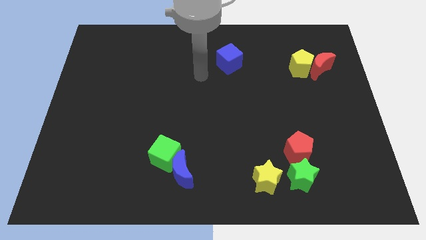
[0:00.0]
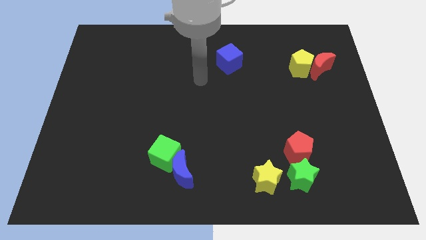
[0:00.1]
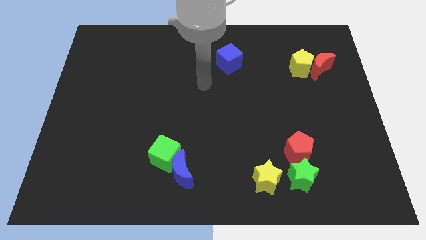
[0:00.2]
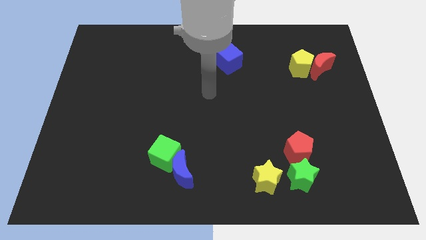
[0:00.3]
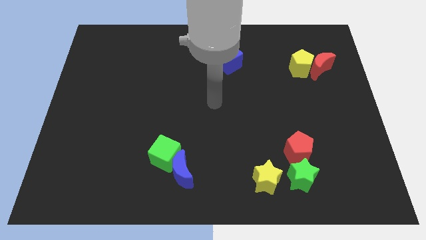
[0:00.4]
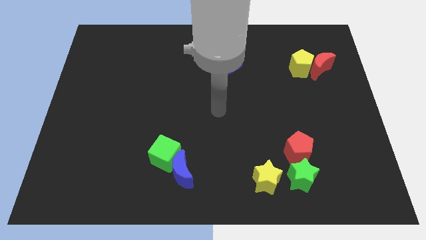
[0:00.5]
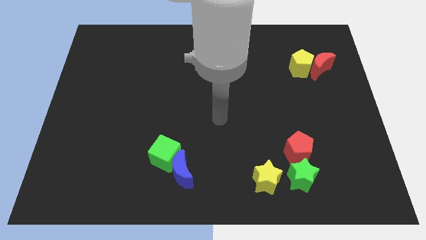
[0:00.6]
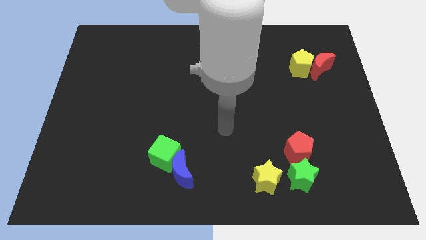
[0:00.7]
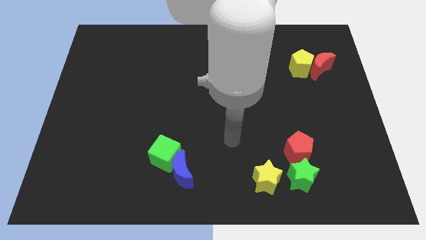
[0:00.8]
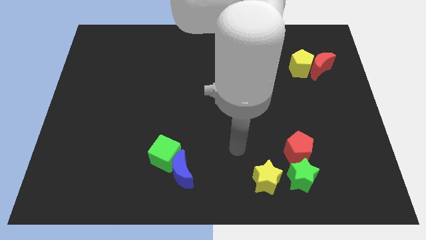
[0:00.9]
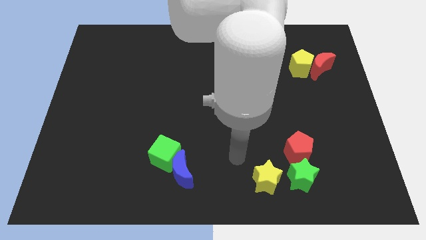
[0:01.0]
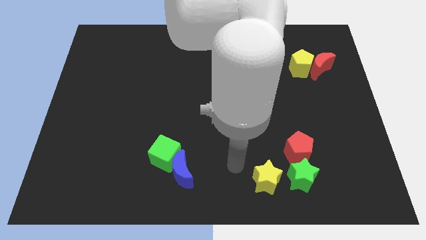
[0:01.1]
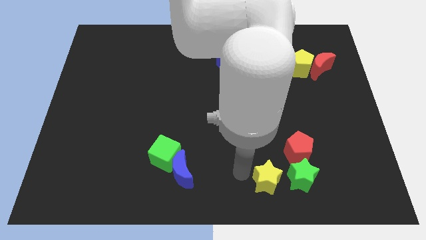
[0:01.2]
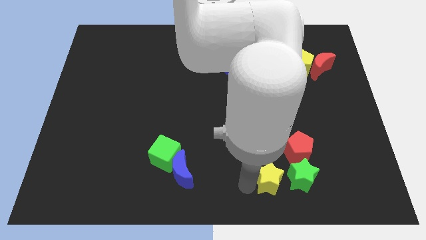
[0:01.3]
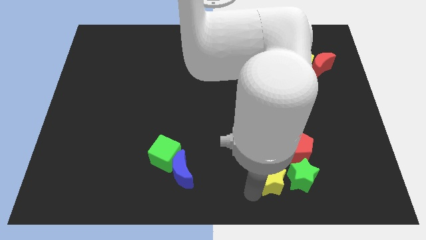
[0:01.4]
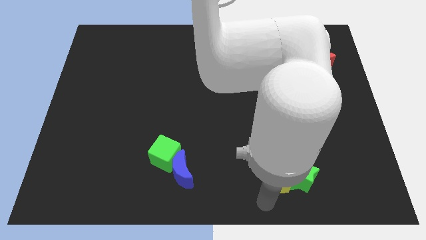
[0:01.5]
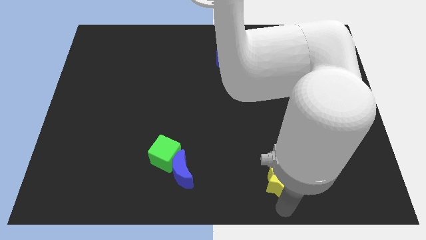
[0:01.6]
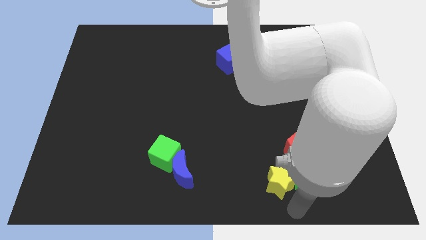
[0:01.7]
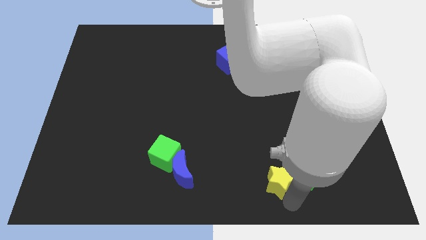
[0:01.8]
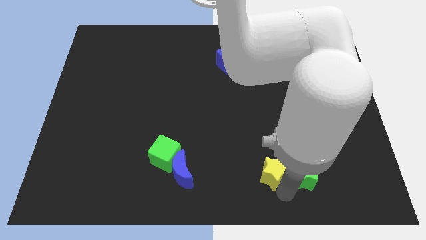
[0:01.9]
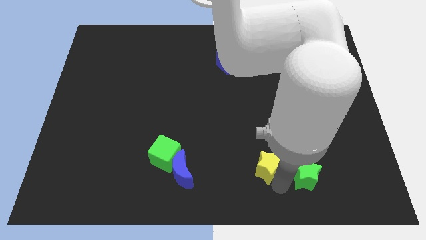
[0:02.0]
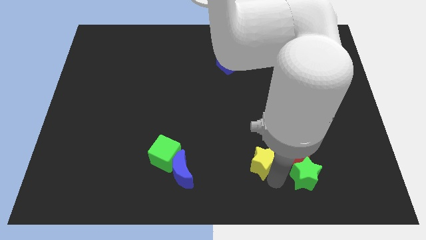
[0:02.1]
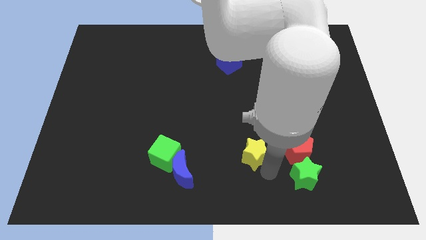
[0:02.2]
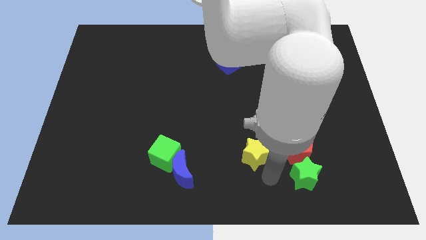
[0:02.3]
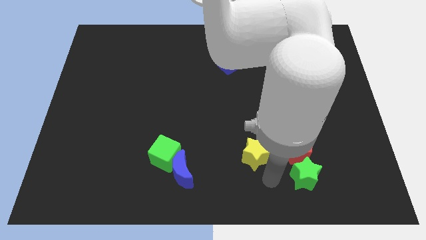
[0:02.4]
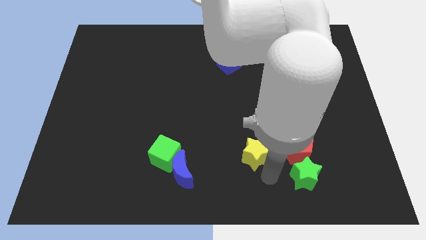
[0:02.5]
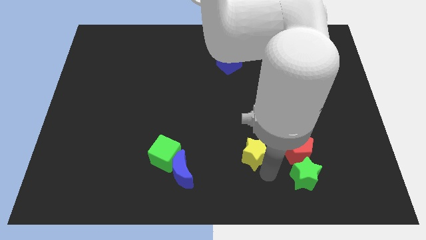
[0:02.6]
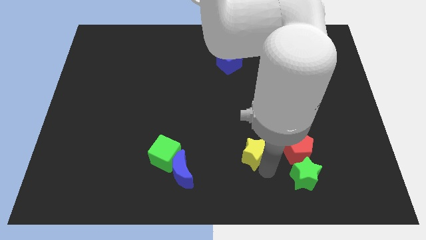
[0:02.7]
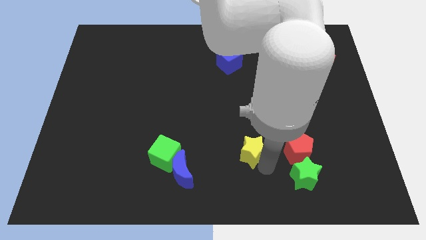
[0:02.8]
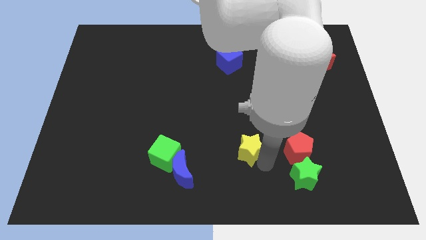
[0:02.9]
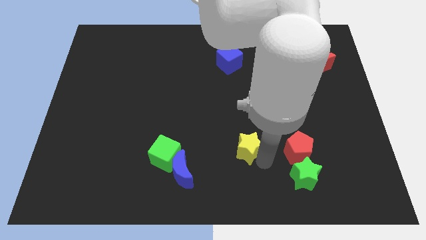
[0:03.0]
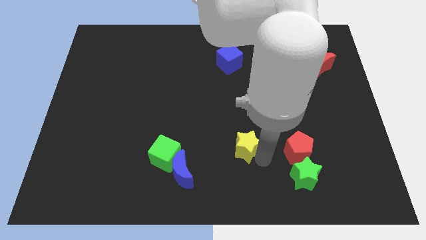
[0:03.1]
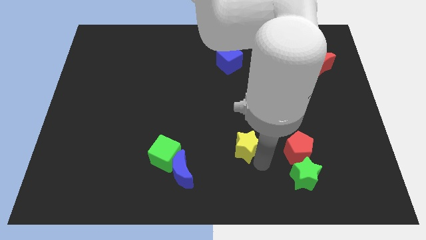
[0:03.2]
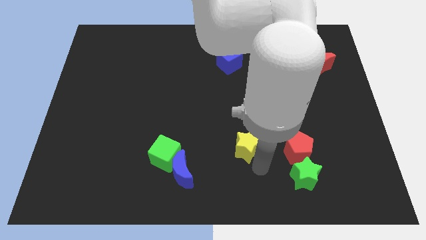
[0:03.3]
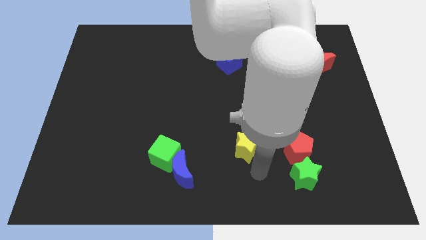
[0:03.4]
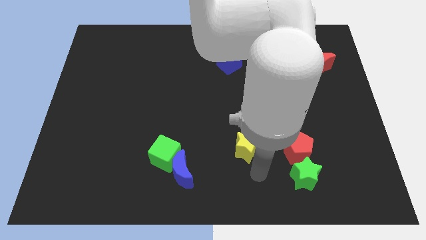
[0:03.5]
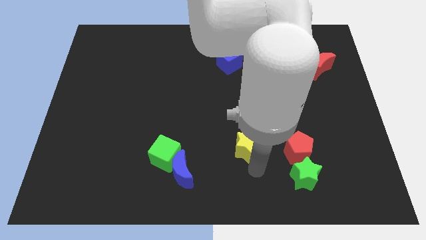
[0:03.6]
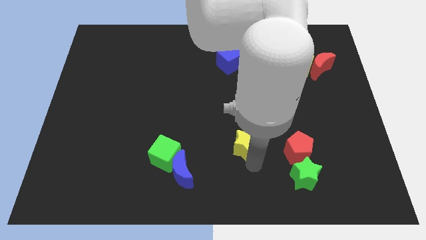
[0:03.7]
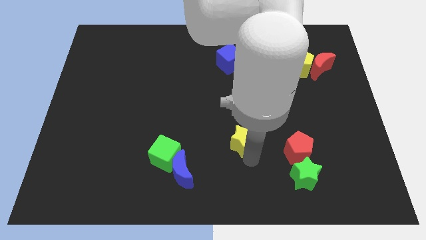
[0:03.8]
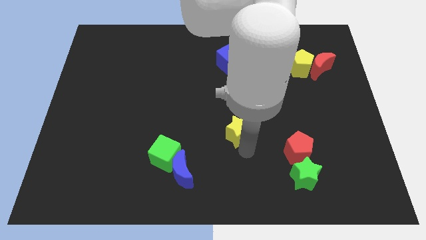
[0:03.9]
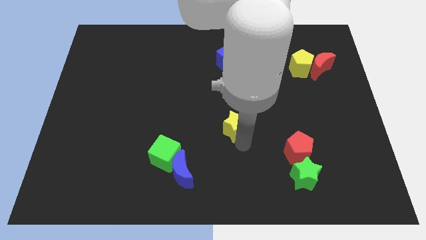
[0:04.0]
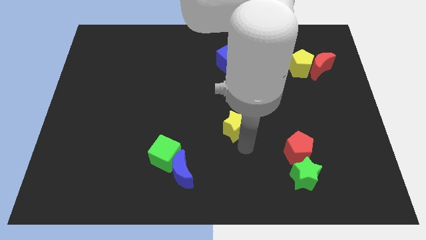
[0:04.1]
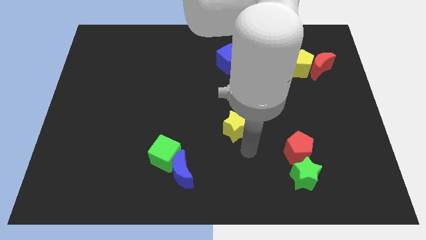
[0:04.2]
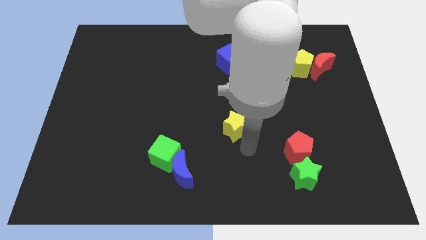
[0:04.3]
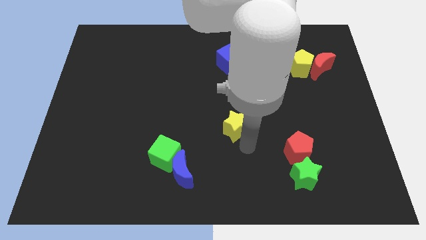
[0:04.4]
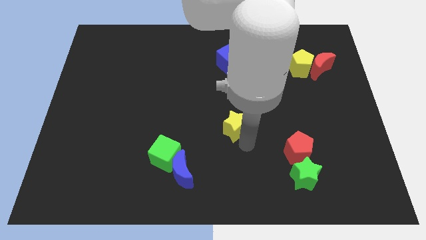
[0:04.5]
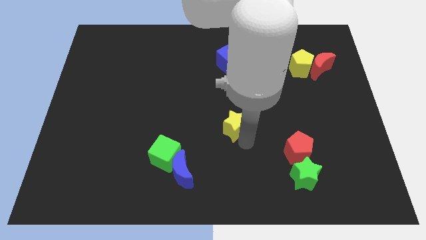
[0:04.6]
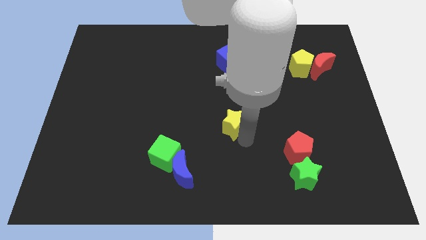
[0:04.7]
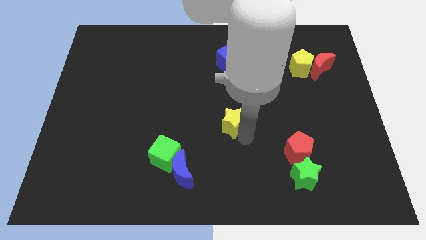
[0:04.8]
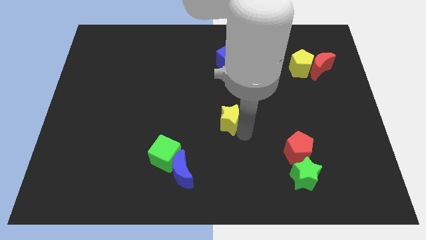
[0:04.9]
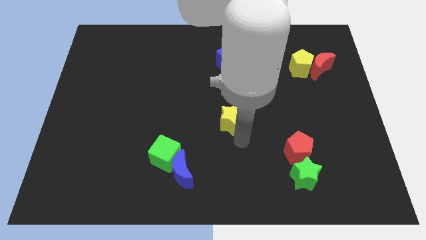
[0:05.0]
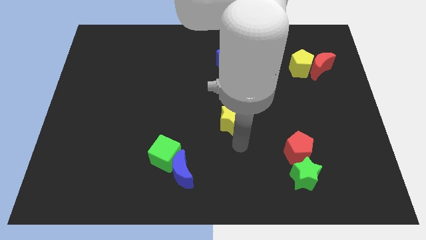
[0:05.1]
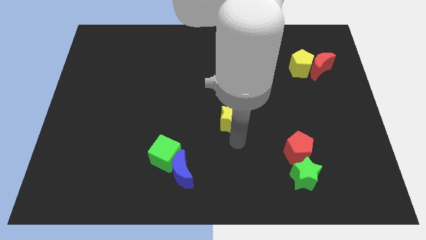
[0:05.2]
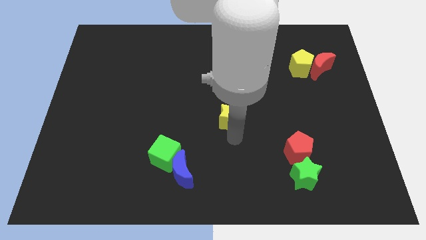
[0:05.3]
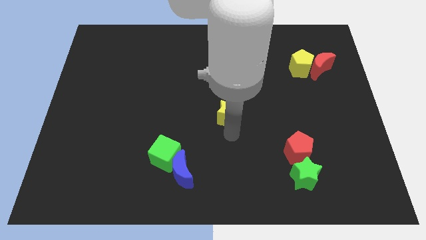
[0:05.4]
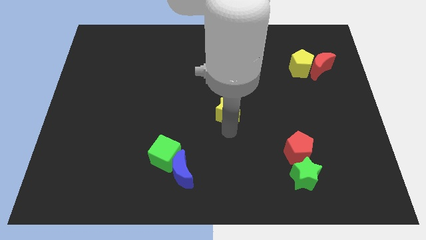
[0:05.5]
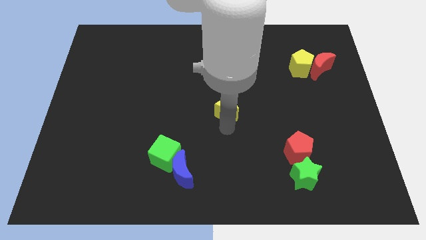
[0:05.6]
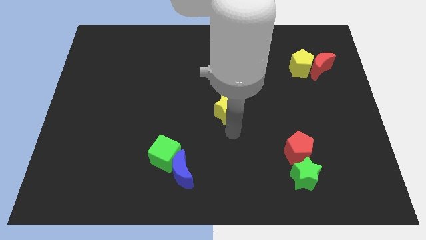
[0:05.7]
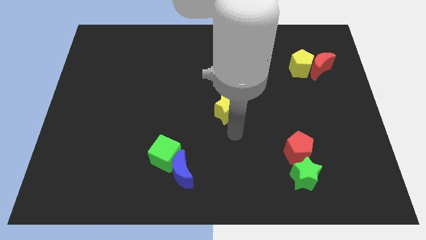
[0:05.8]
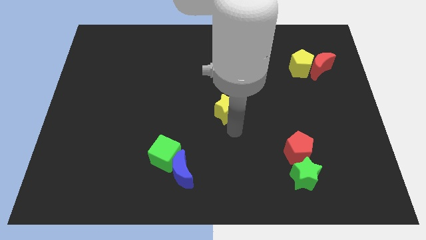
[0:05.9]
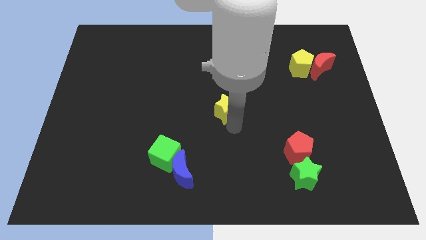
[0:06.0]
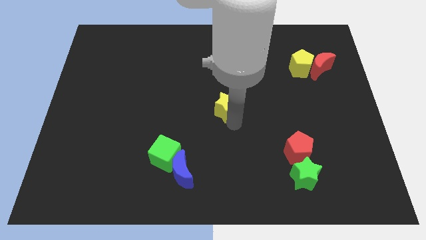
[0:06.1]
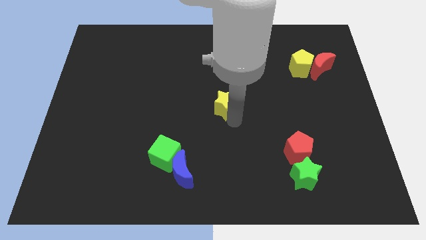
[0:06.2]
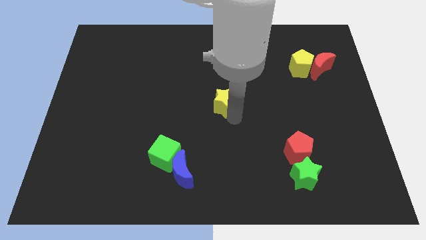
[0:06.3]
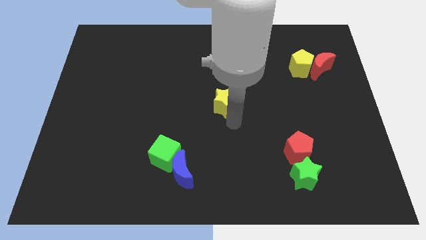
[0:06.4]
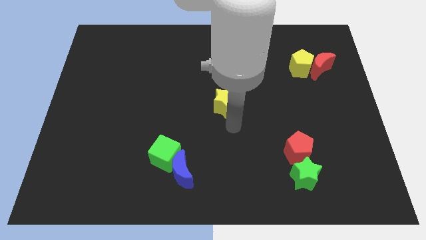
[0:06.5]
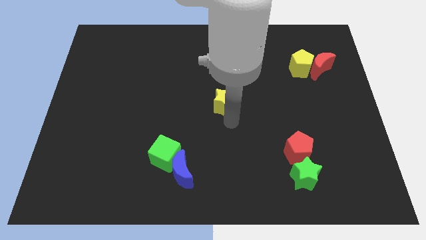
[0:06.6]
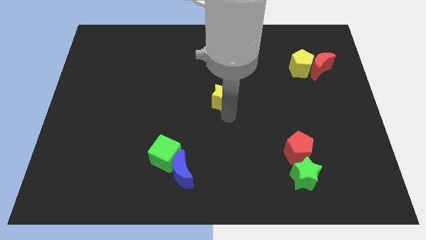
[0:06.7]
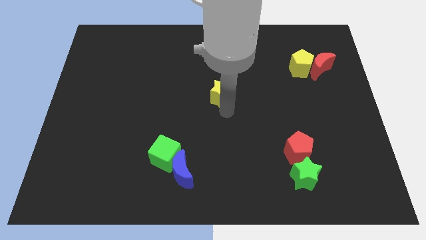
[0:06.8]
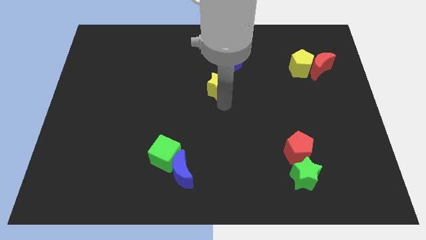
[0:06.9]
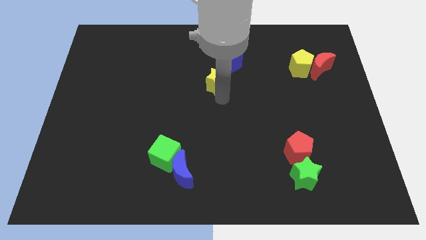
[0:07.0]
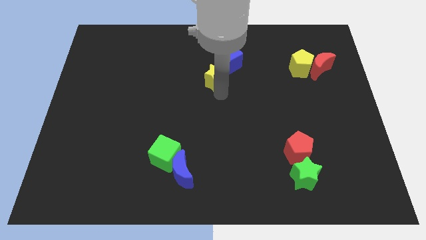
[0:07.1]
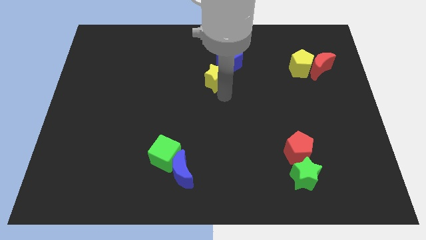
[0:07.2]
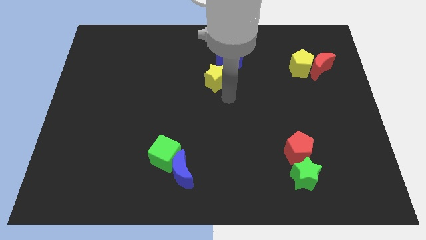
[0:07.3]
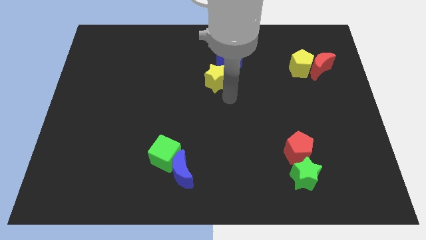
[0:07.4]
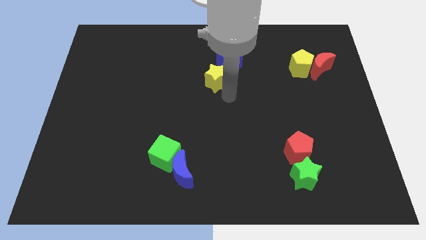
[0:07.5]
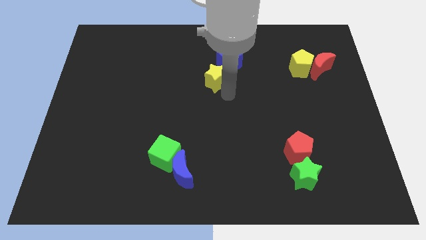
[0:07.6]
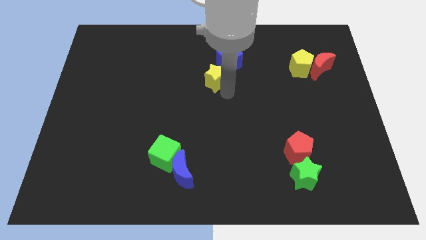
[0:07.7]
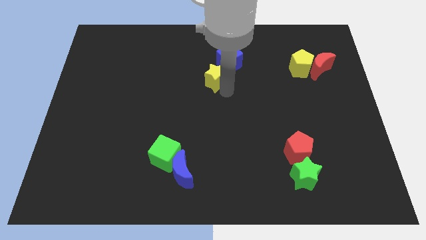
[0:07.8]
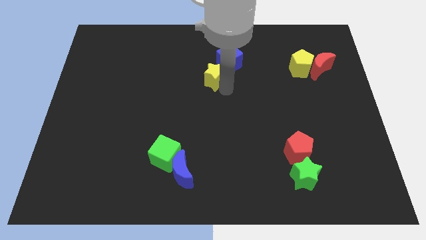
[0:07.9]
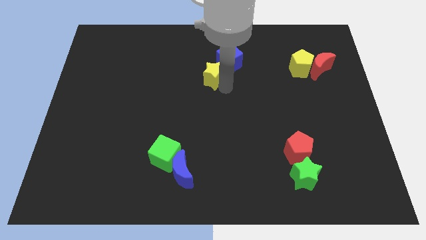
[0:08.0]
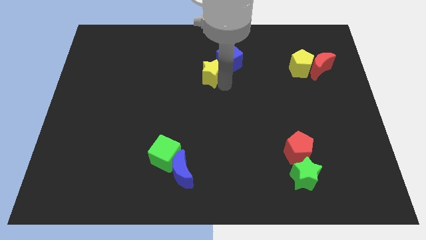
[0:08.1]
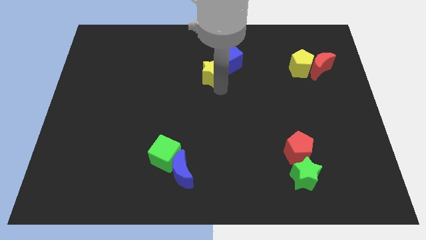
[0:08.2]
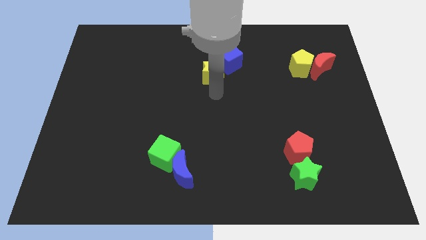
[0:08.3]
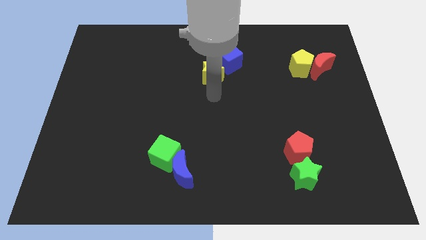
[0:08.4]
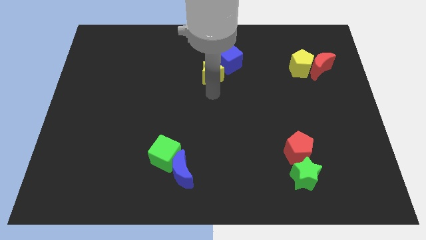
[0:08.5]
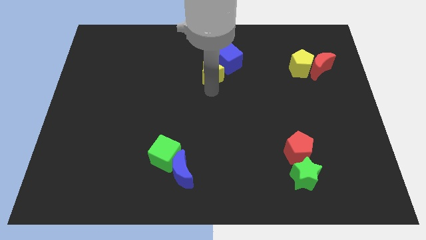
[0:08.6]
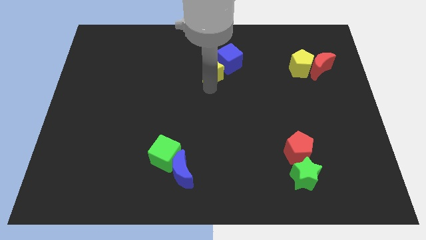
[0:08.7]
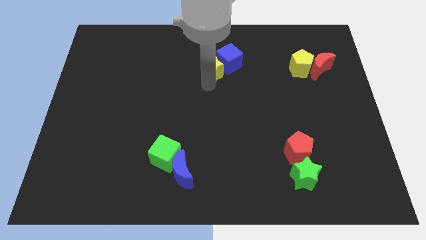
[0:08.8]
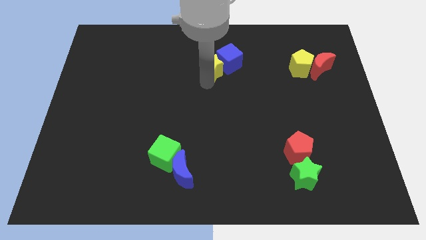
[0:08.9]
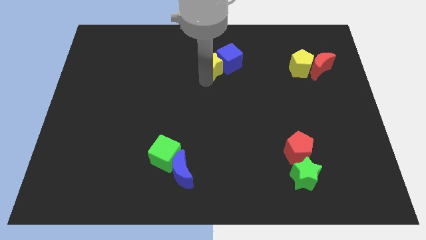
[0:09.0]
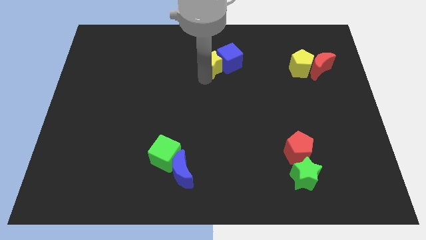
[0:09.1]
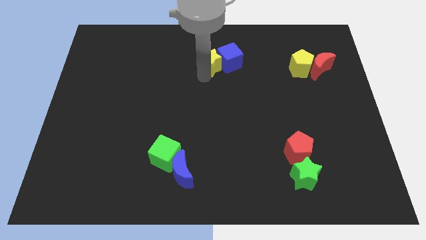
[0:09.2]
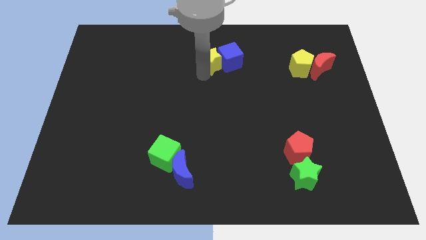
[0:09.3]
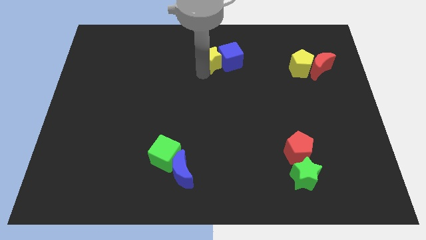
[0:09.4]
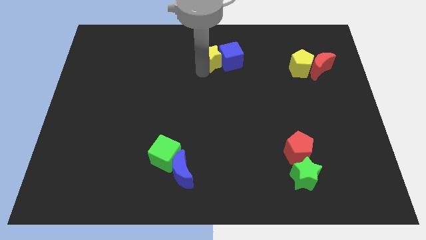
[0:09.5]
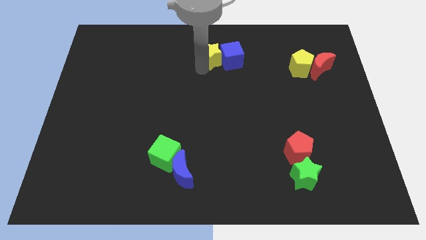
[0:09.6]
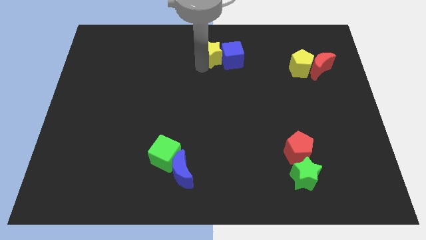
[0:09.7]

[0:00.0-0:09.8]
slide the yellow star to the towards your base
